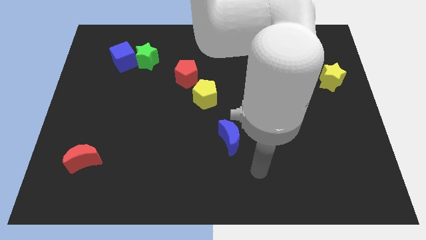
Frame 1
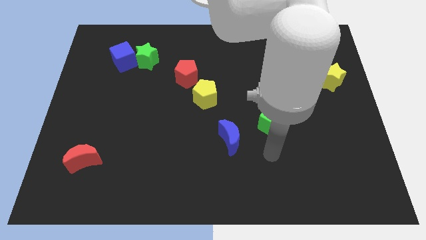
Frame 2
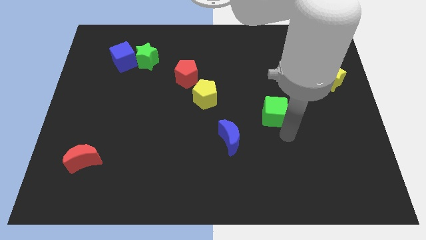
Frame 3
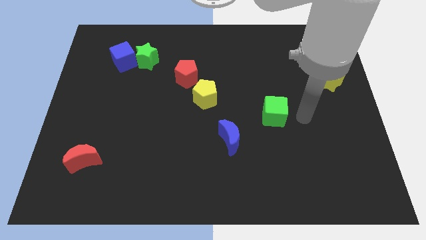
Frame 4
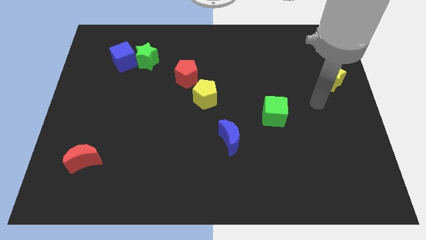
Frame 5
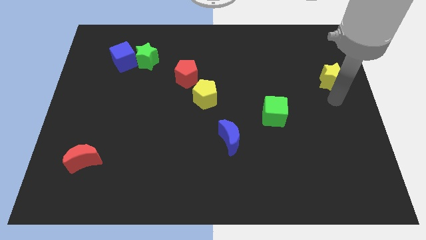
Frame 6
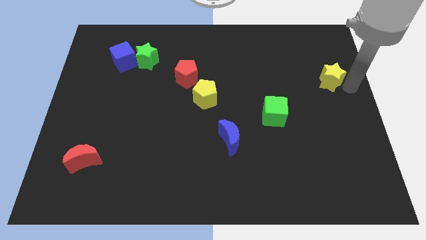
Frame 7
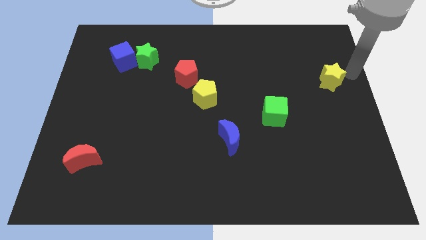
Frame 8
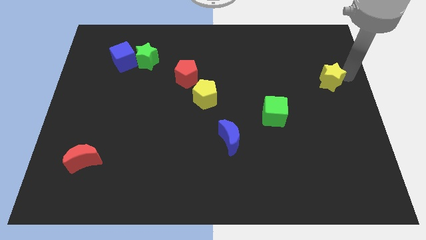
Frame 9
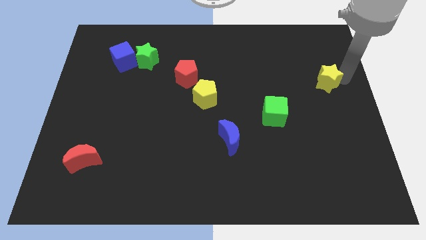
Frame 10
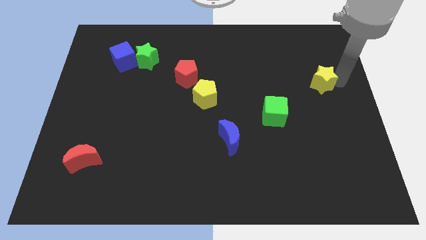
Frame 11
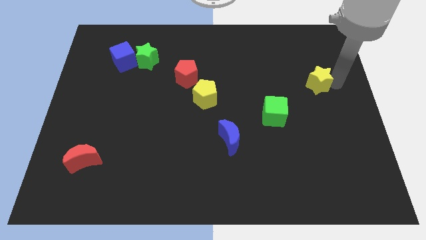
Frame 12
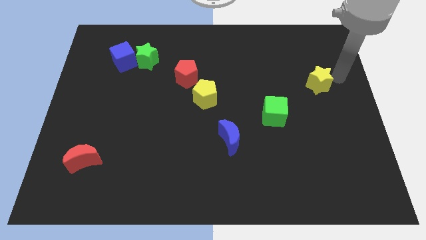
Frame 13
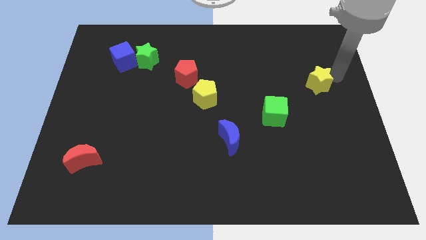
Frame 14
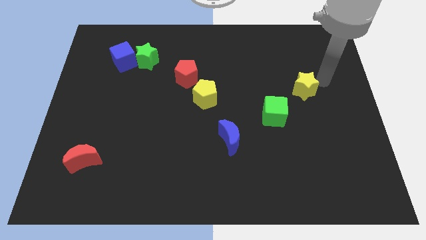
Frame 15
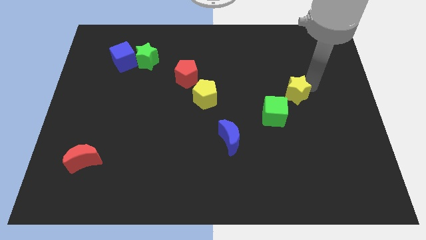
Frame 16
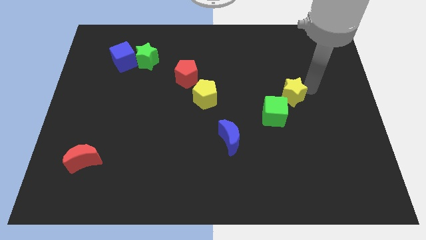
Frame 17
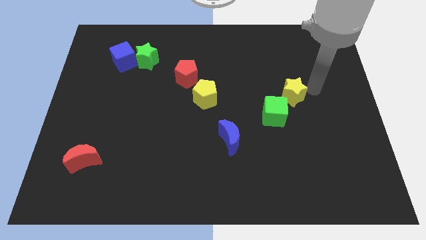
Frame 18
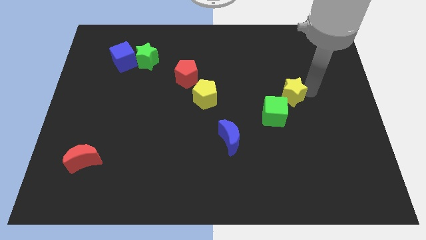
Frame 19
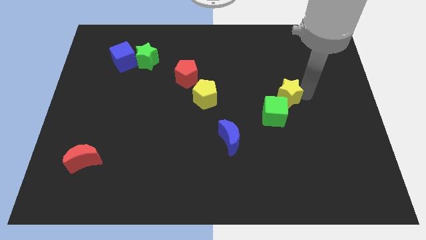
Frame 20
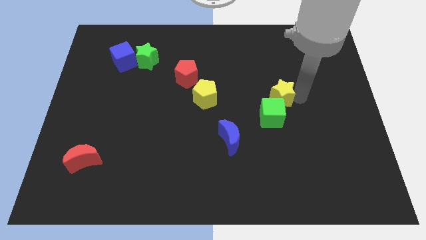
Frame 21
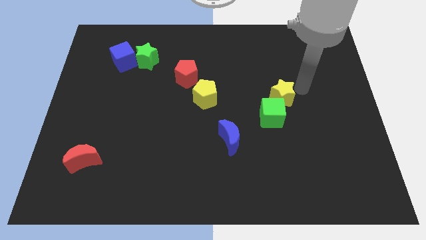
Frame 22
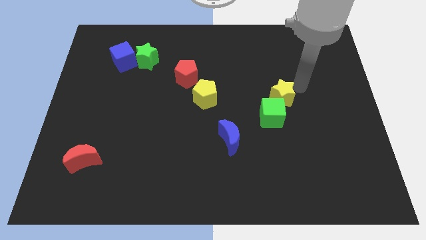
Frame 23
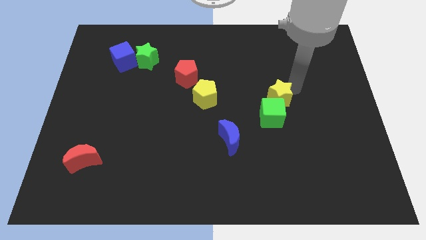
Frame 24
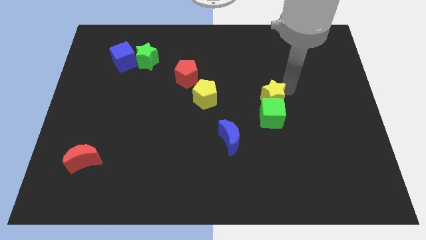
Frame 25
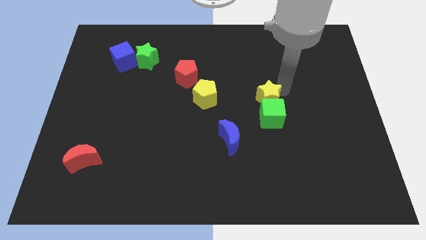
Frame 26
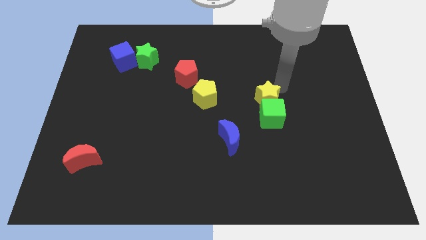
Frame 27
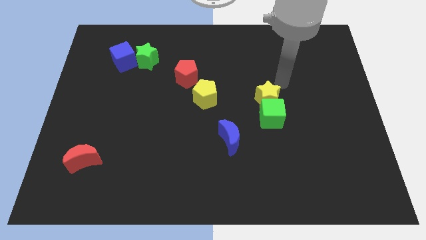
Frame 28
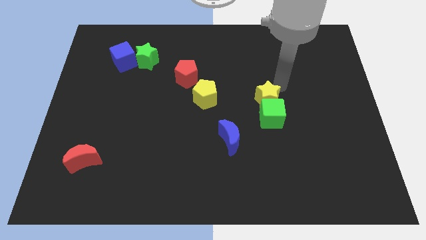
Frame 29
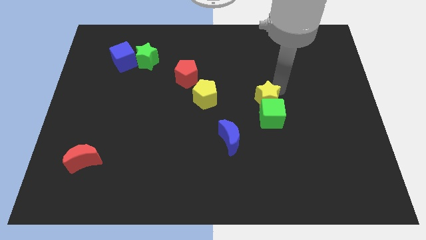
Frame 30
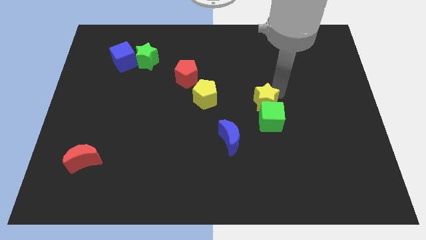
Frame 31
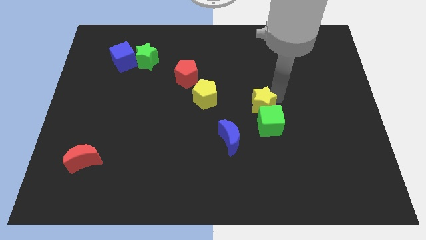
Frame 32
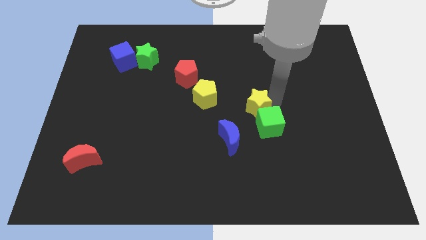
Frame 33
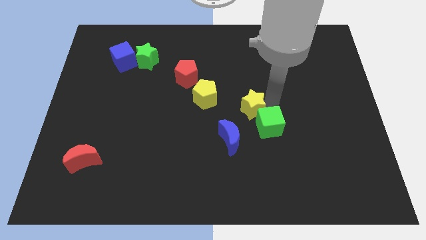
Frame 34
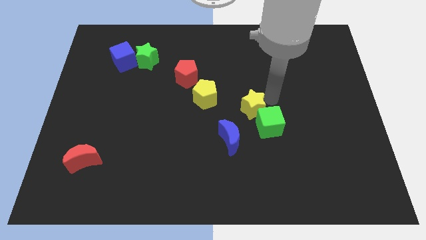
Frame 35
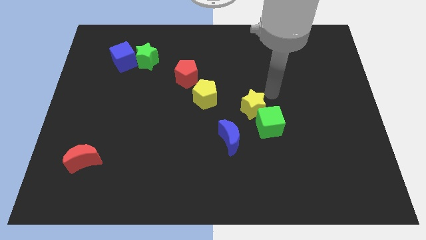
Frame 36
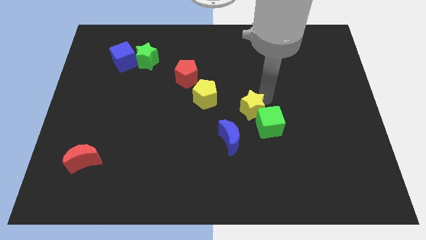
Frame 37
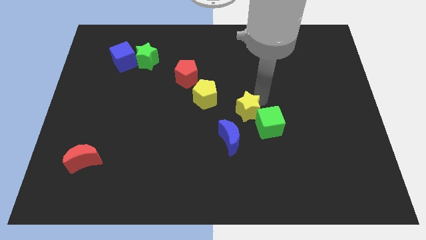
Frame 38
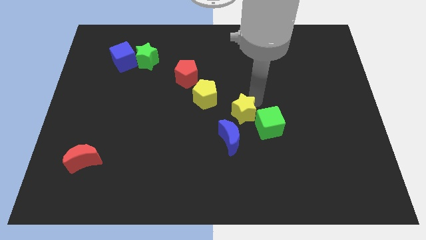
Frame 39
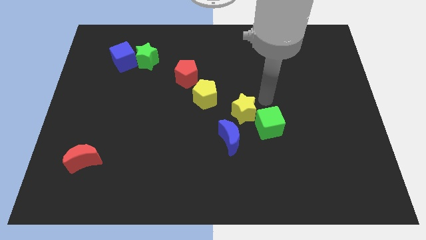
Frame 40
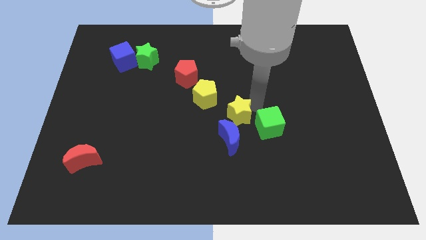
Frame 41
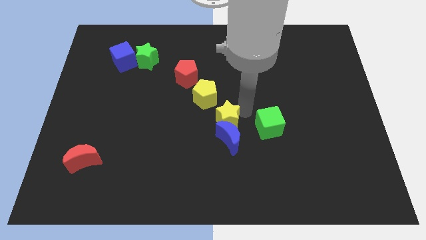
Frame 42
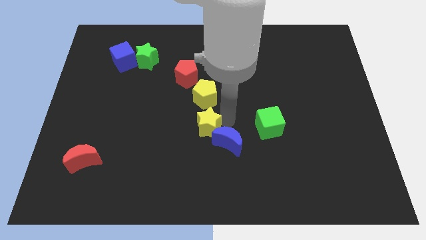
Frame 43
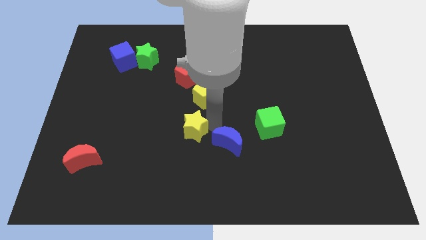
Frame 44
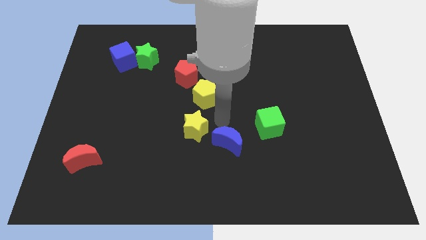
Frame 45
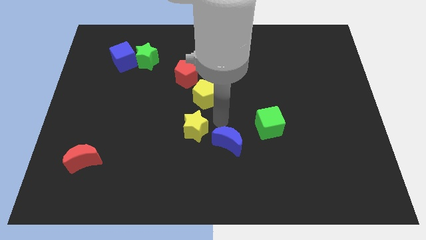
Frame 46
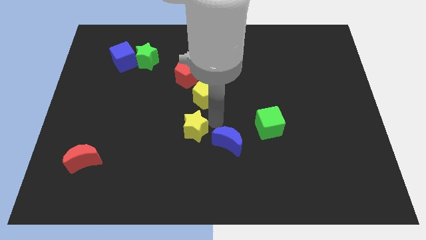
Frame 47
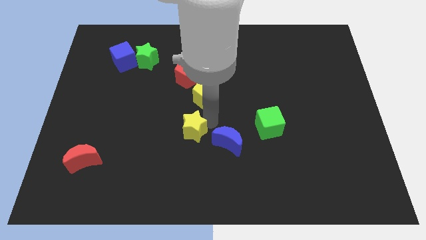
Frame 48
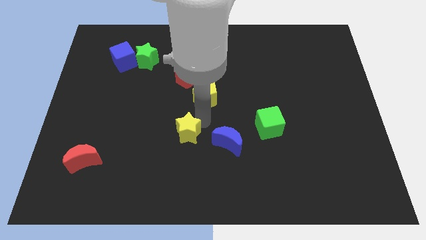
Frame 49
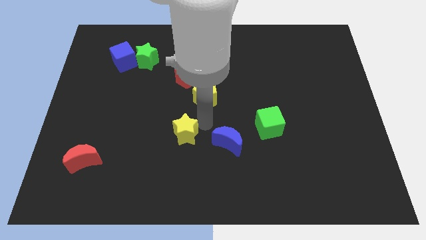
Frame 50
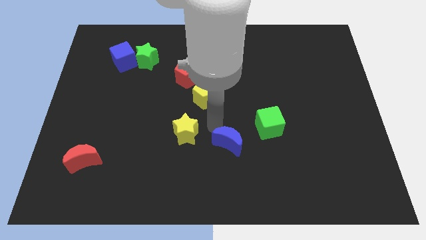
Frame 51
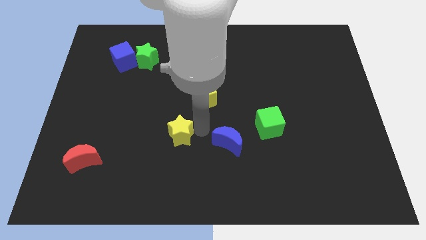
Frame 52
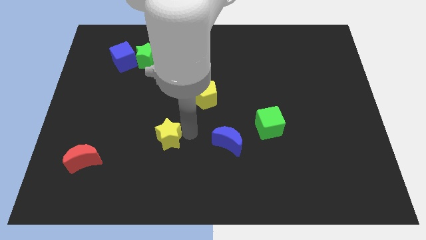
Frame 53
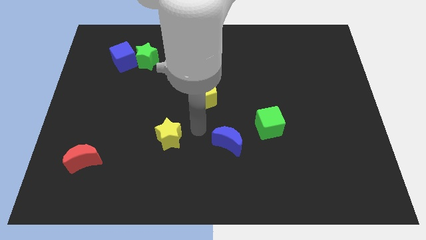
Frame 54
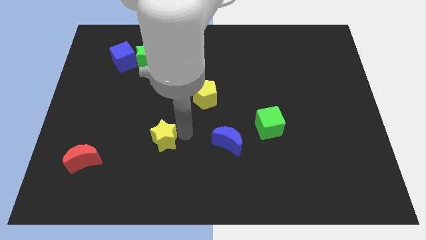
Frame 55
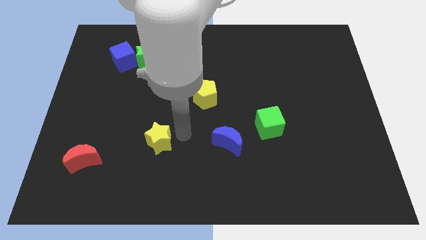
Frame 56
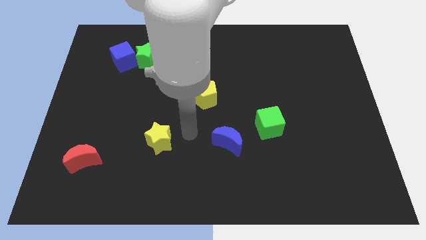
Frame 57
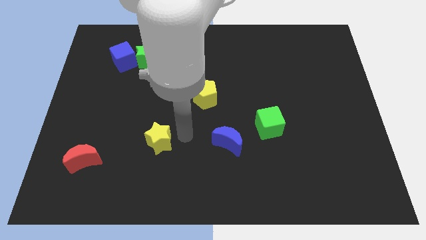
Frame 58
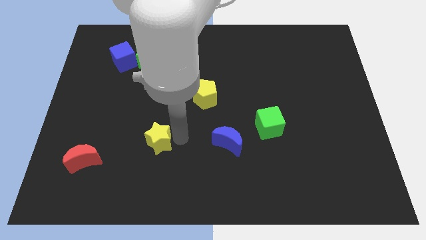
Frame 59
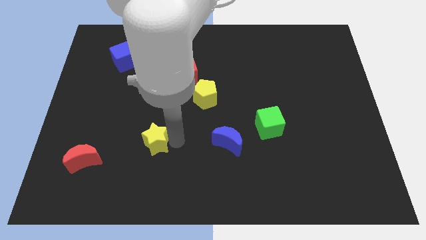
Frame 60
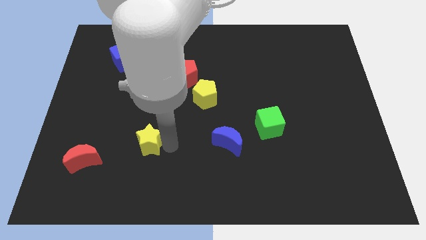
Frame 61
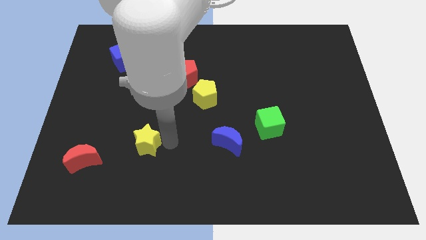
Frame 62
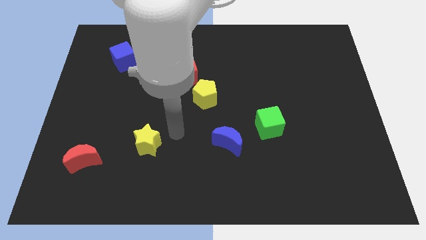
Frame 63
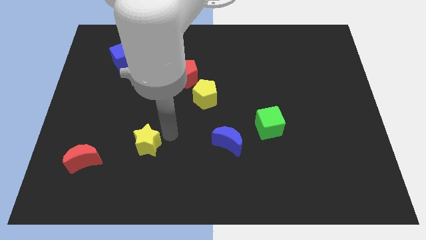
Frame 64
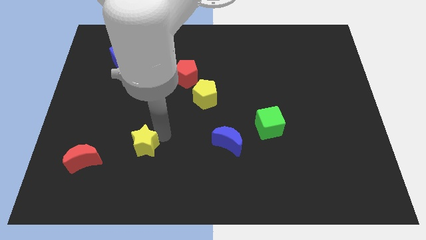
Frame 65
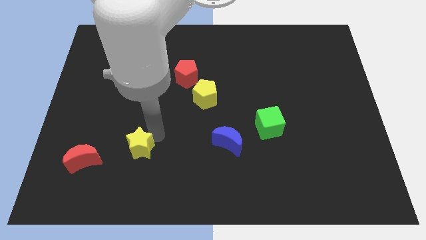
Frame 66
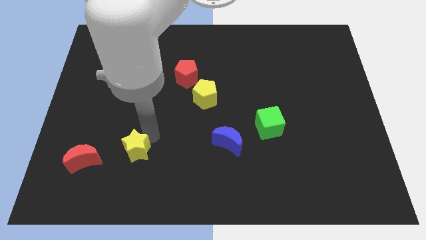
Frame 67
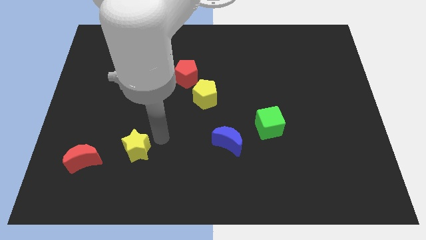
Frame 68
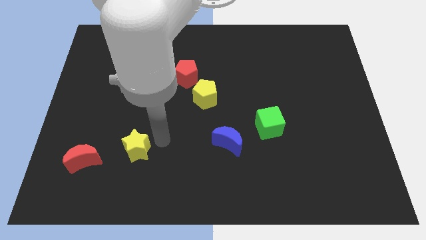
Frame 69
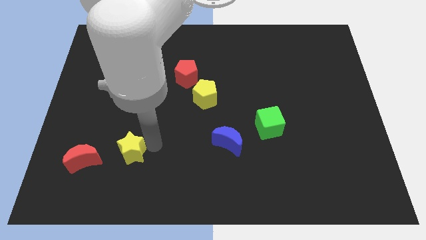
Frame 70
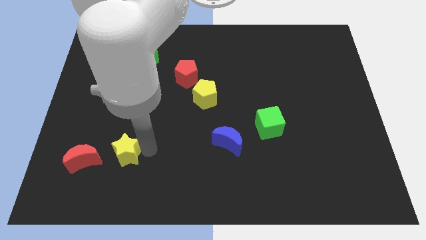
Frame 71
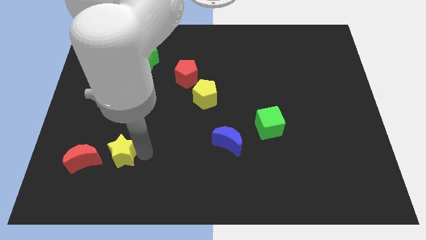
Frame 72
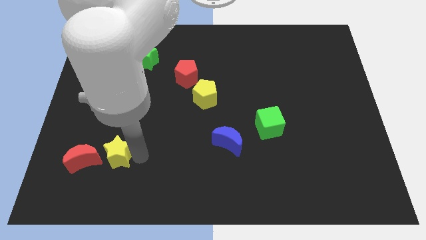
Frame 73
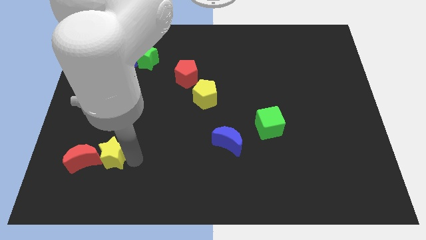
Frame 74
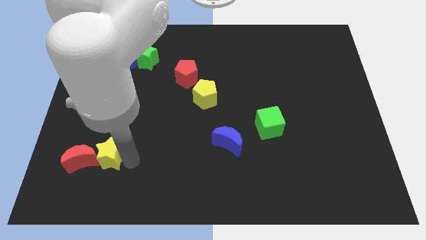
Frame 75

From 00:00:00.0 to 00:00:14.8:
push the yellow star to the red moon
